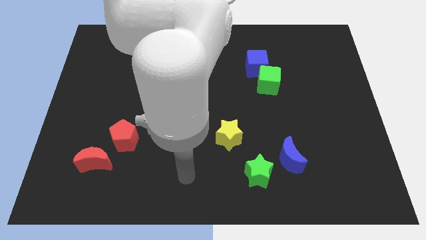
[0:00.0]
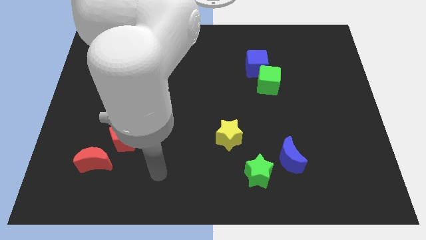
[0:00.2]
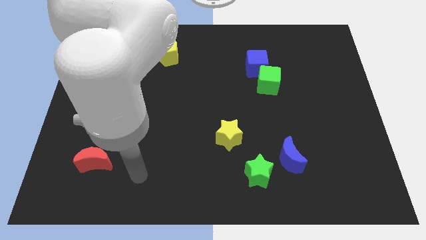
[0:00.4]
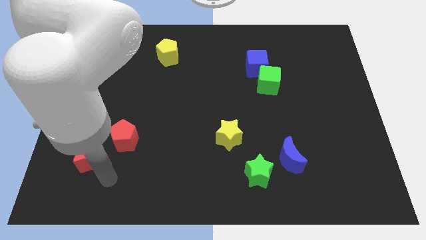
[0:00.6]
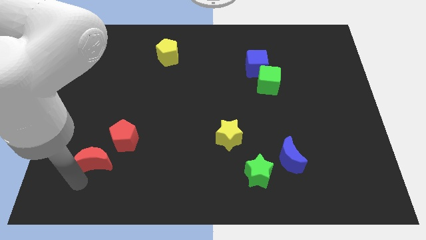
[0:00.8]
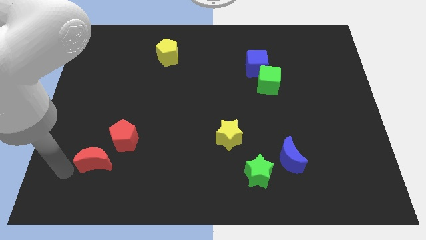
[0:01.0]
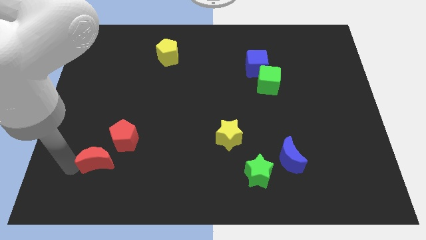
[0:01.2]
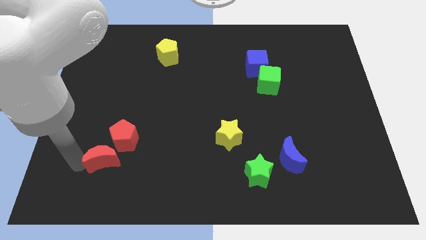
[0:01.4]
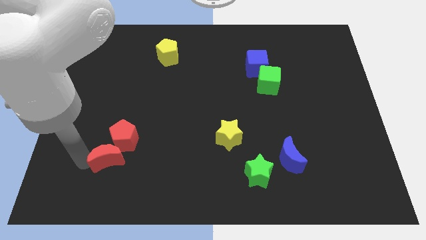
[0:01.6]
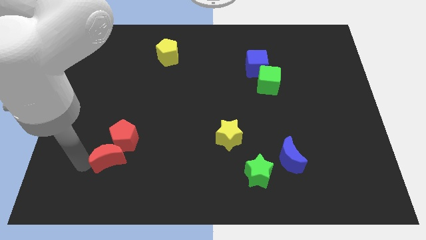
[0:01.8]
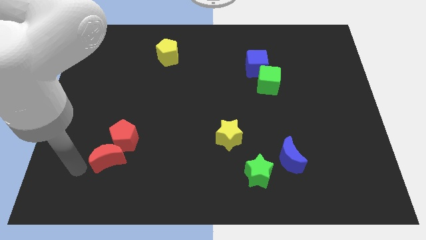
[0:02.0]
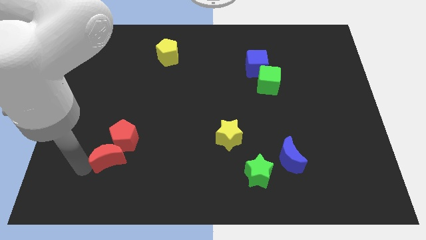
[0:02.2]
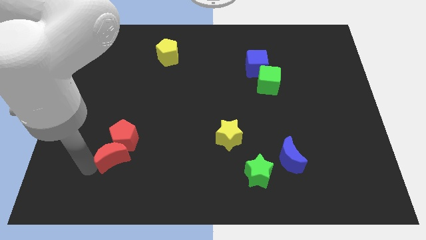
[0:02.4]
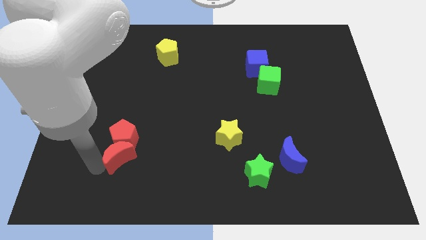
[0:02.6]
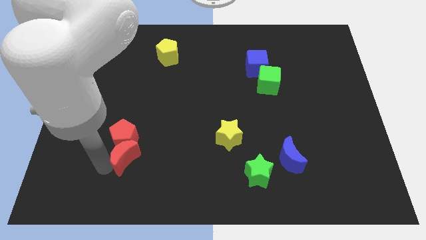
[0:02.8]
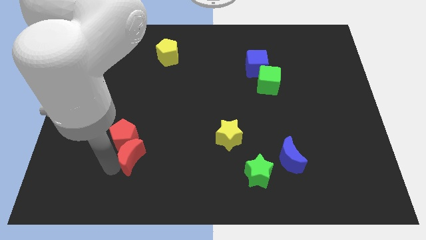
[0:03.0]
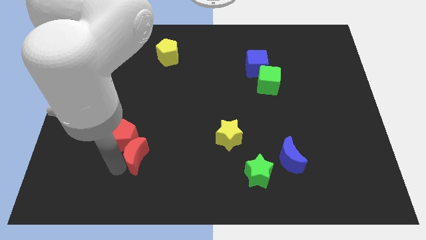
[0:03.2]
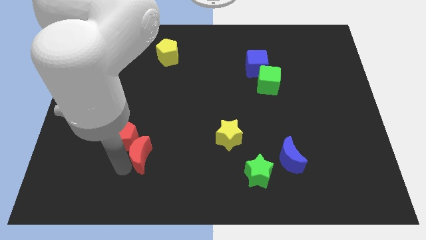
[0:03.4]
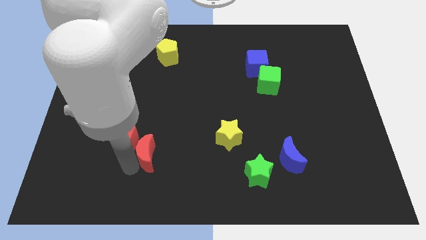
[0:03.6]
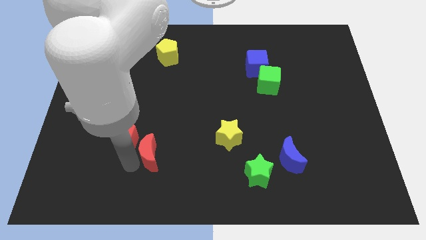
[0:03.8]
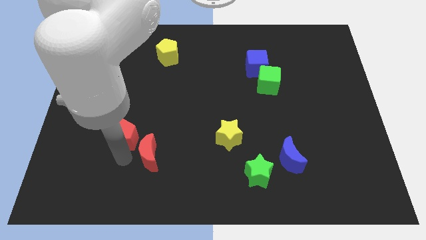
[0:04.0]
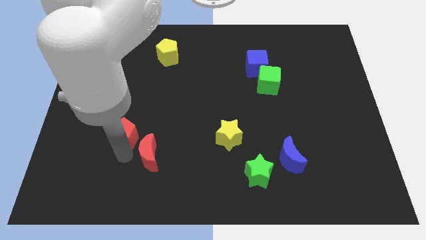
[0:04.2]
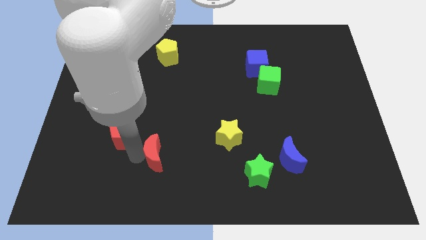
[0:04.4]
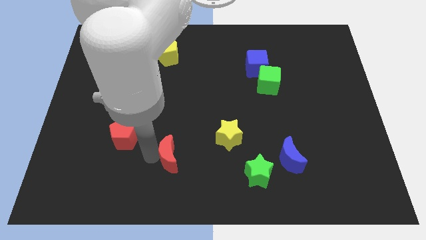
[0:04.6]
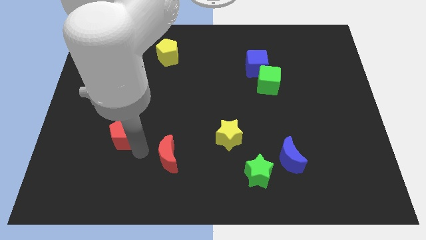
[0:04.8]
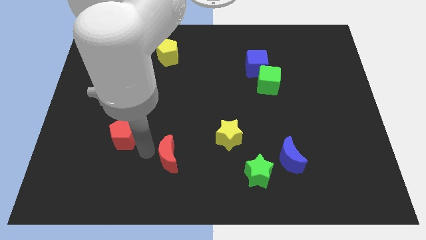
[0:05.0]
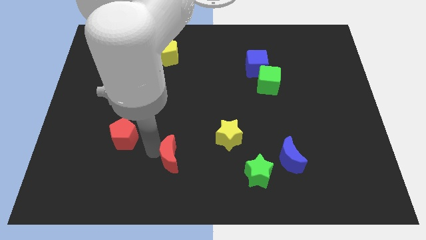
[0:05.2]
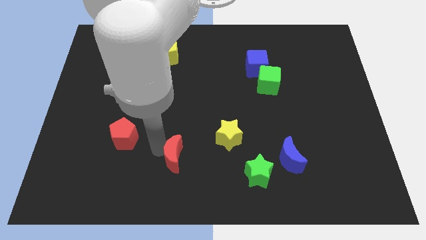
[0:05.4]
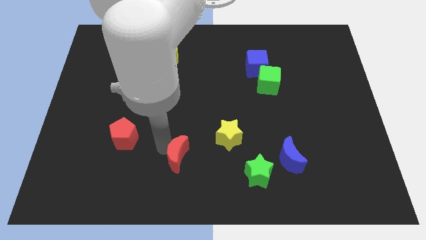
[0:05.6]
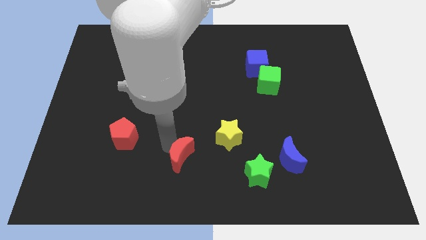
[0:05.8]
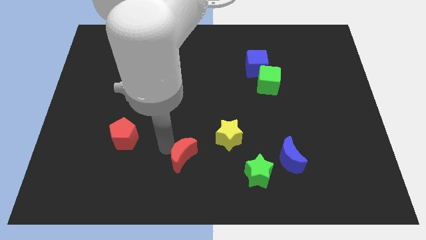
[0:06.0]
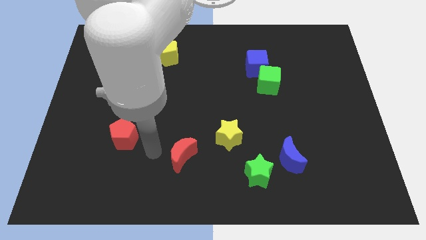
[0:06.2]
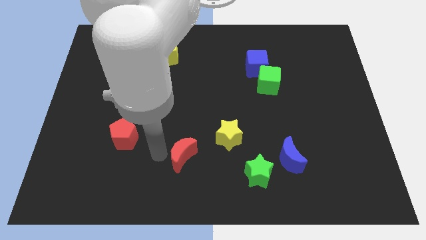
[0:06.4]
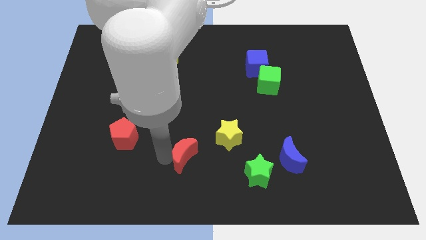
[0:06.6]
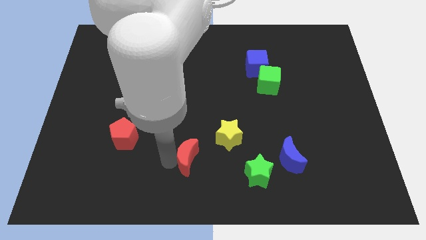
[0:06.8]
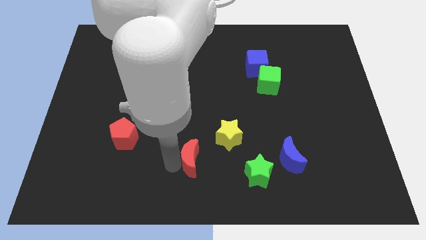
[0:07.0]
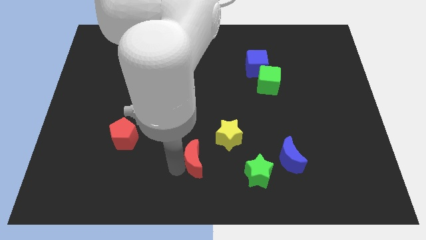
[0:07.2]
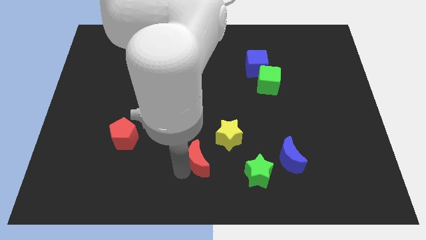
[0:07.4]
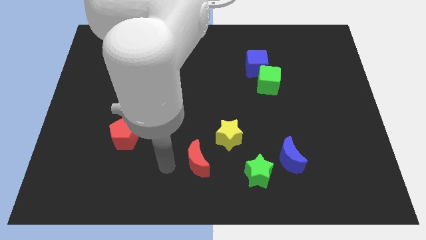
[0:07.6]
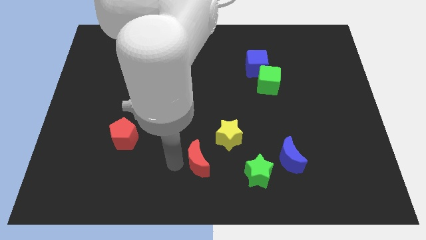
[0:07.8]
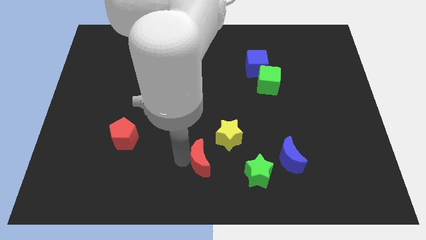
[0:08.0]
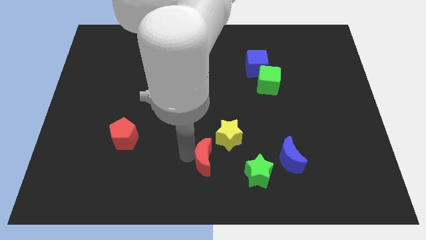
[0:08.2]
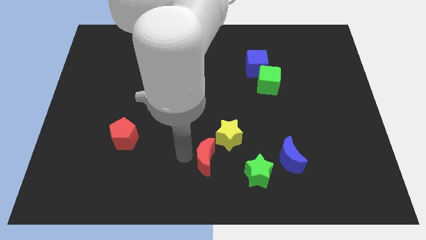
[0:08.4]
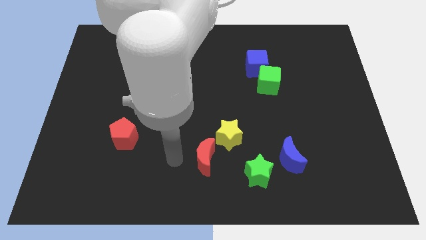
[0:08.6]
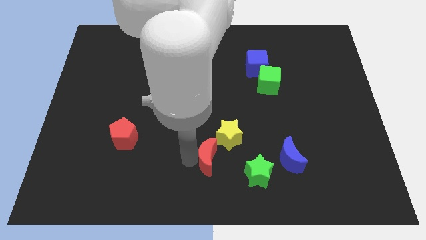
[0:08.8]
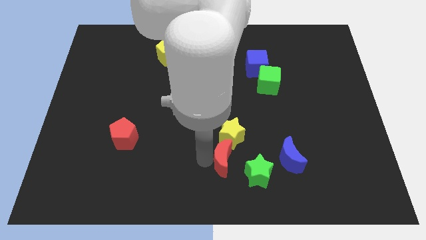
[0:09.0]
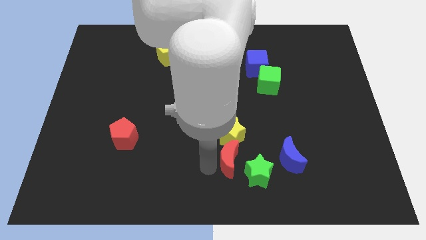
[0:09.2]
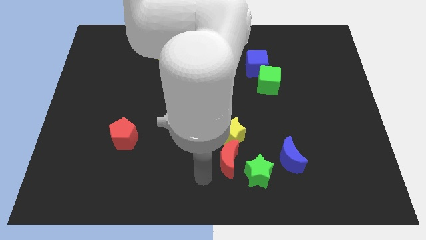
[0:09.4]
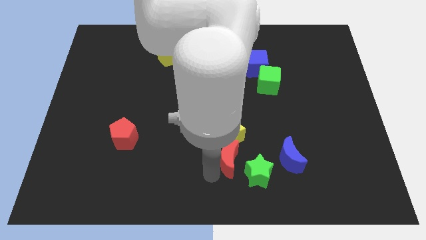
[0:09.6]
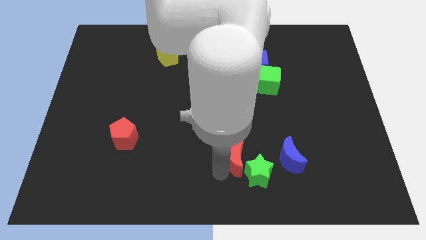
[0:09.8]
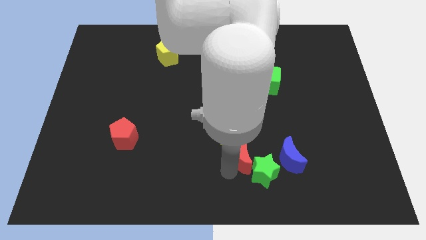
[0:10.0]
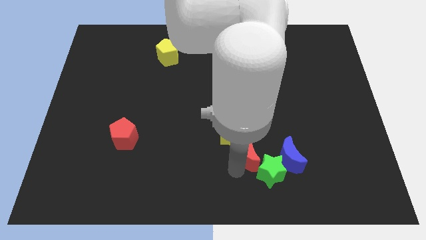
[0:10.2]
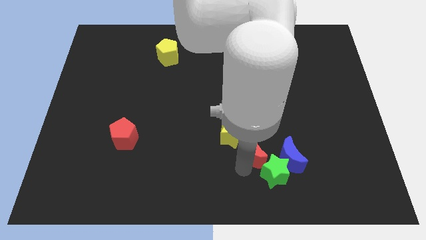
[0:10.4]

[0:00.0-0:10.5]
put the red moon to the top left of the blue moon

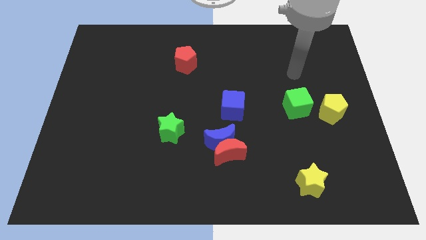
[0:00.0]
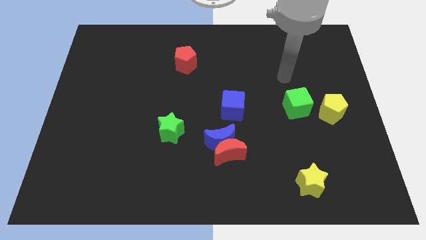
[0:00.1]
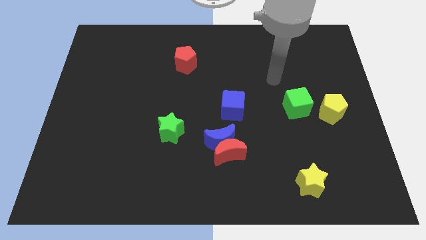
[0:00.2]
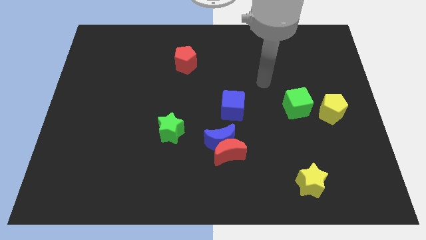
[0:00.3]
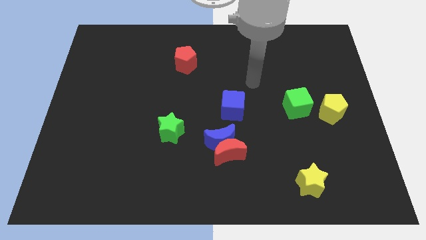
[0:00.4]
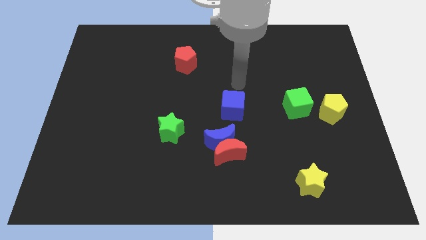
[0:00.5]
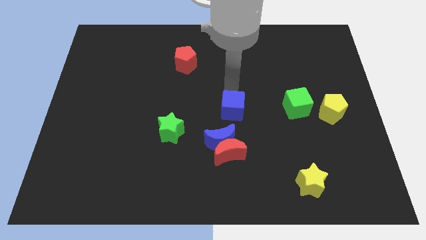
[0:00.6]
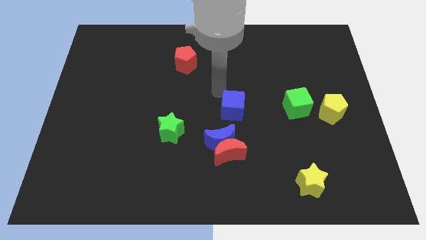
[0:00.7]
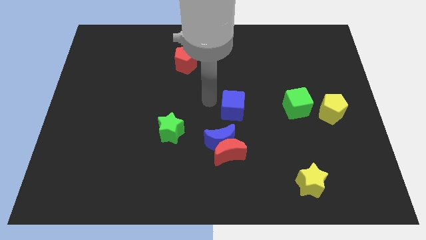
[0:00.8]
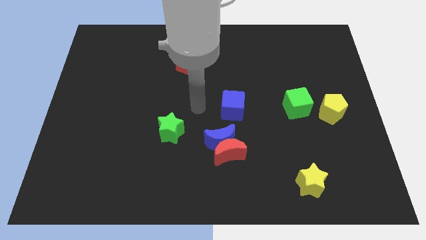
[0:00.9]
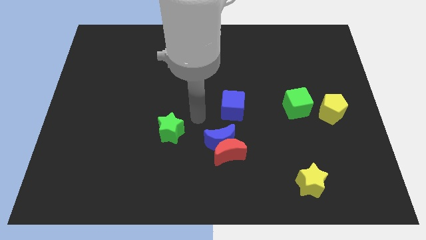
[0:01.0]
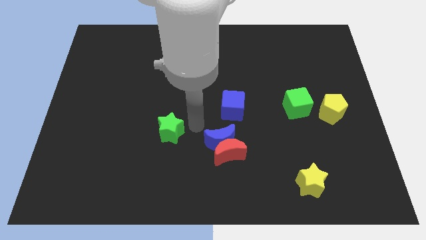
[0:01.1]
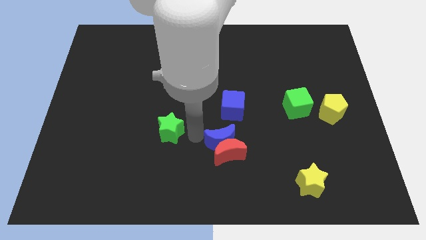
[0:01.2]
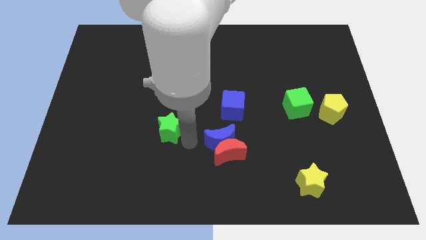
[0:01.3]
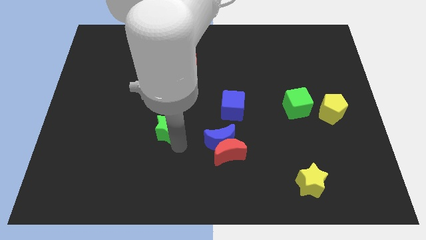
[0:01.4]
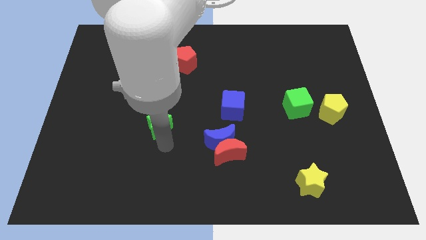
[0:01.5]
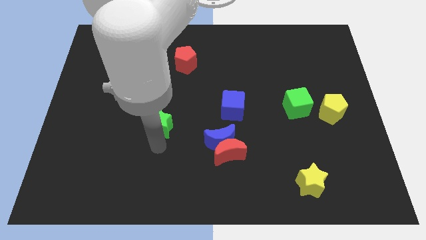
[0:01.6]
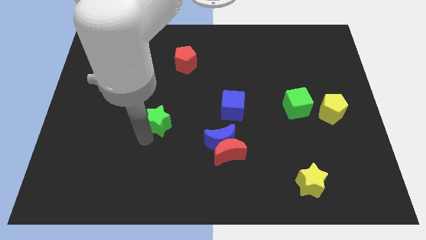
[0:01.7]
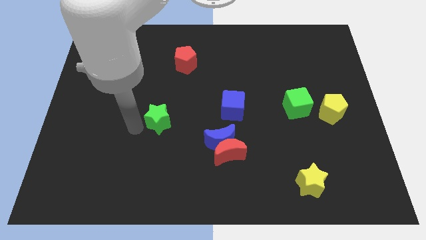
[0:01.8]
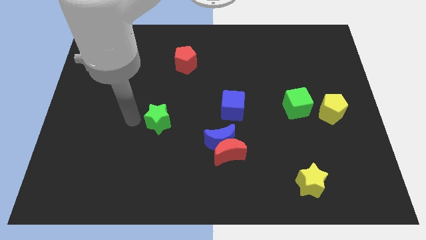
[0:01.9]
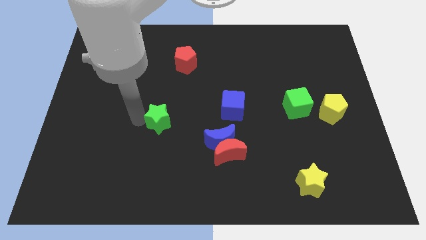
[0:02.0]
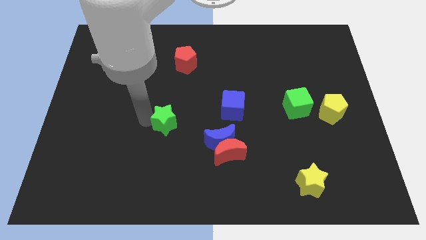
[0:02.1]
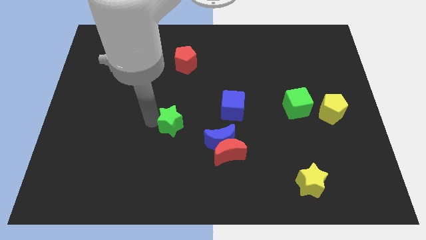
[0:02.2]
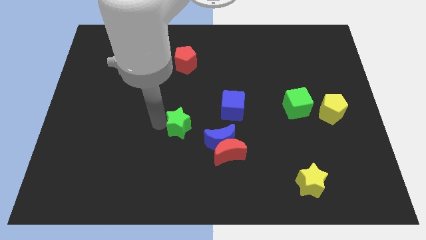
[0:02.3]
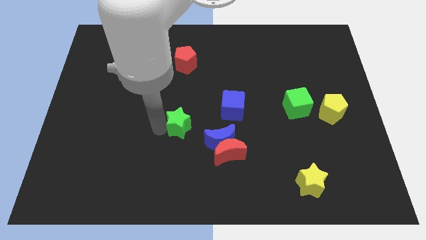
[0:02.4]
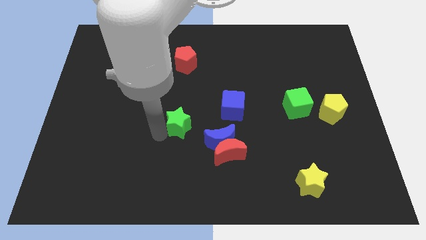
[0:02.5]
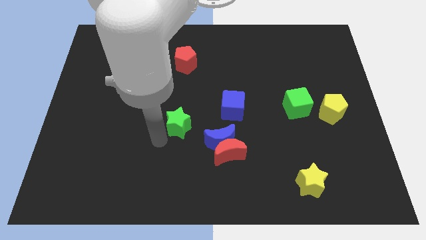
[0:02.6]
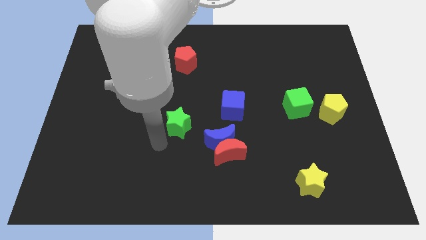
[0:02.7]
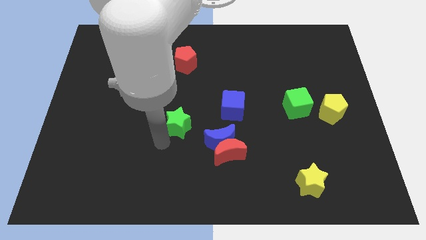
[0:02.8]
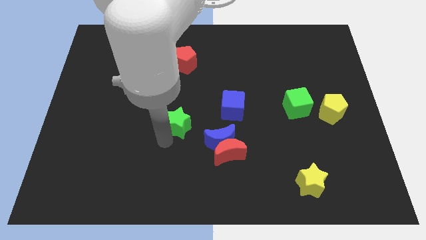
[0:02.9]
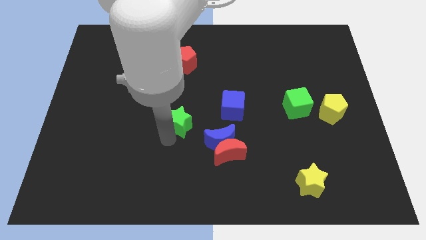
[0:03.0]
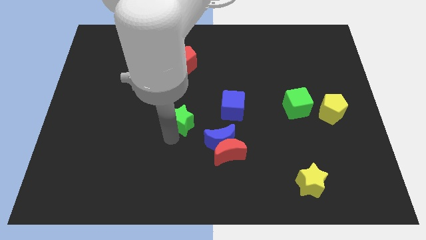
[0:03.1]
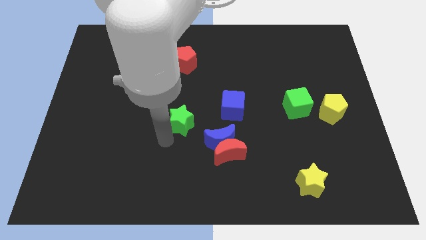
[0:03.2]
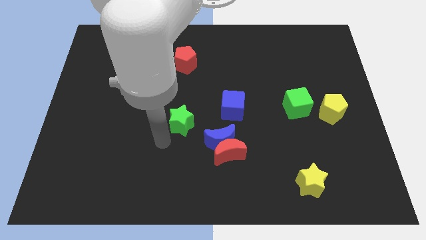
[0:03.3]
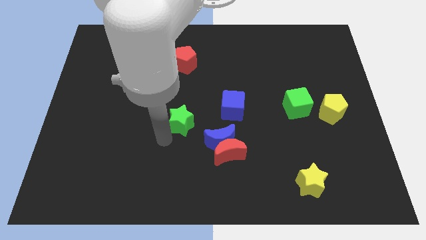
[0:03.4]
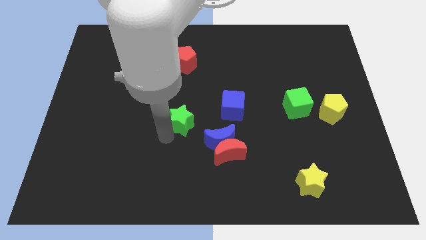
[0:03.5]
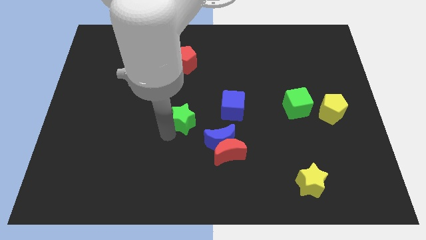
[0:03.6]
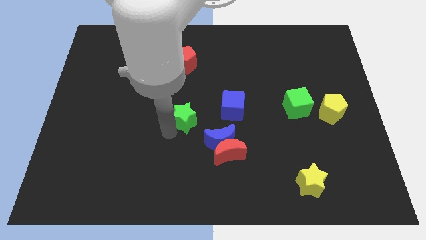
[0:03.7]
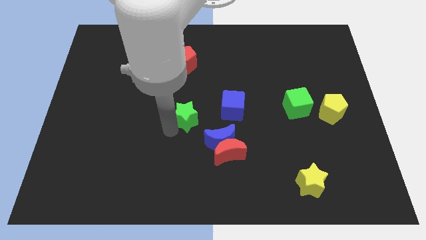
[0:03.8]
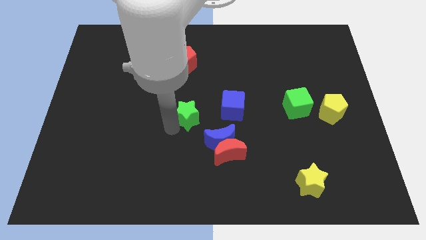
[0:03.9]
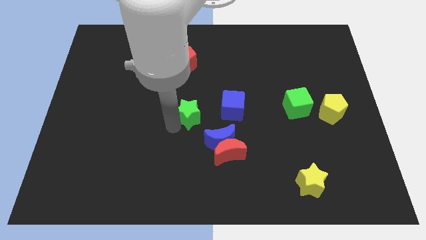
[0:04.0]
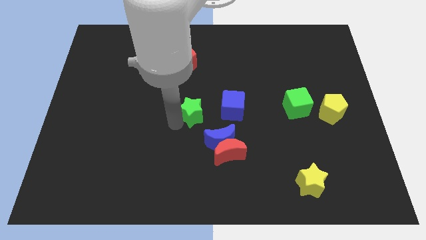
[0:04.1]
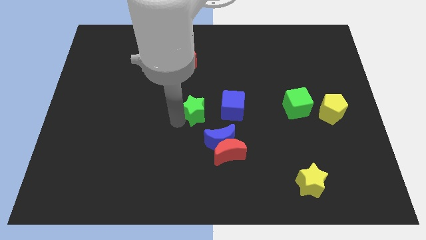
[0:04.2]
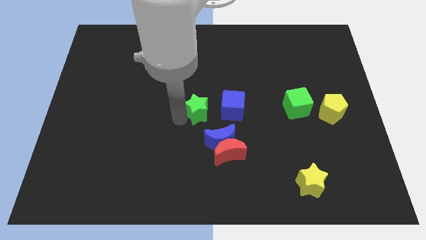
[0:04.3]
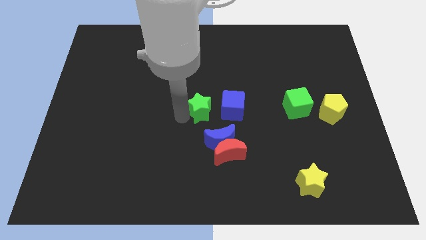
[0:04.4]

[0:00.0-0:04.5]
put the green star to the top of the blue moon
